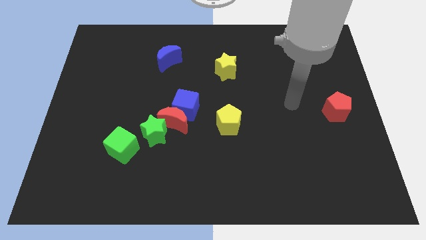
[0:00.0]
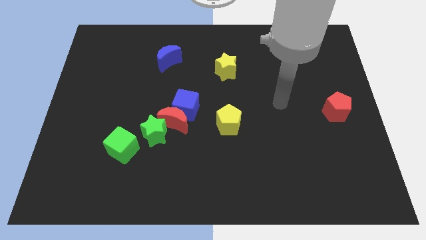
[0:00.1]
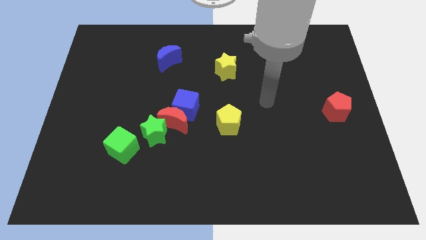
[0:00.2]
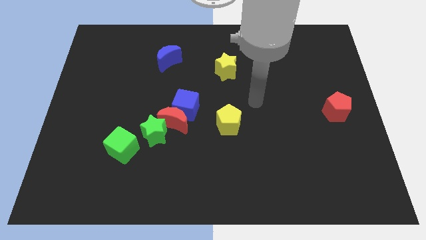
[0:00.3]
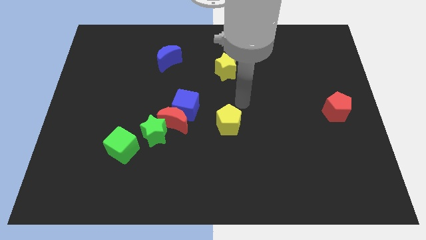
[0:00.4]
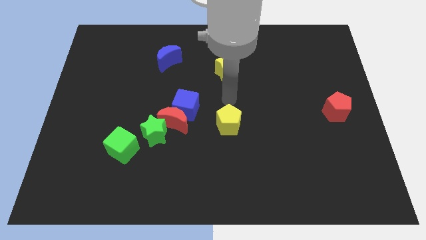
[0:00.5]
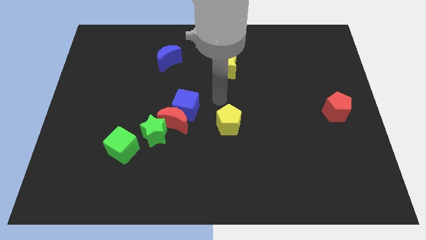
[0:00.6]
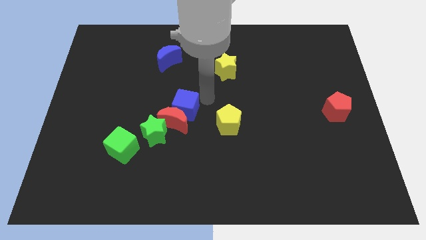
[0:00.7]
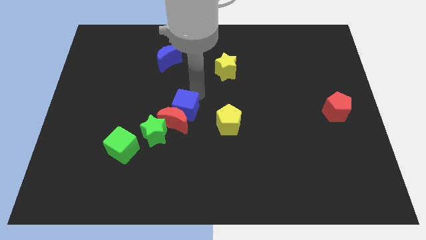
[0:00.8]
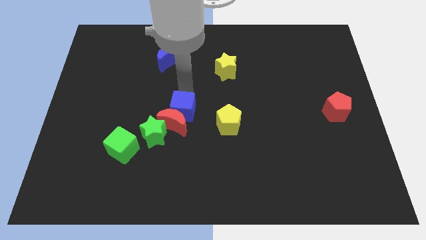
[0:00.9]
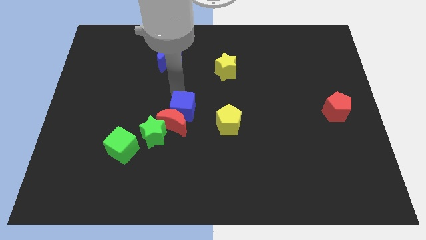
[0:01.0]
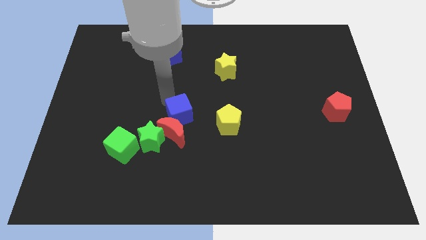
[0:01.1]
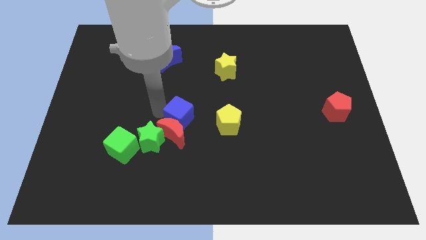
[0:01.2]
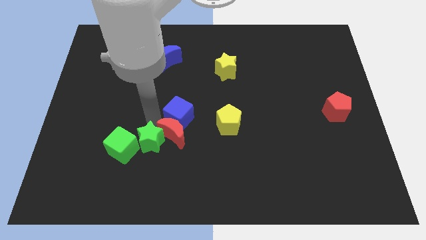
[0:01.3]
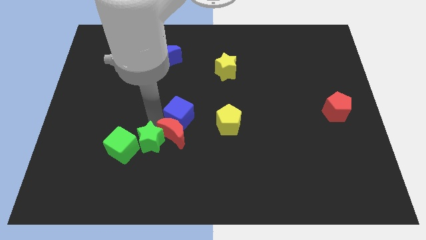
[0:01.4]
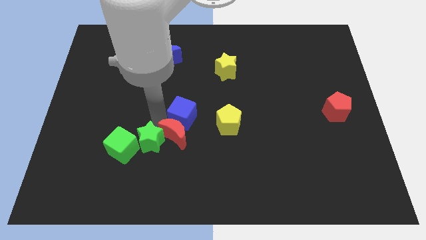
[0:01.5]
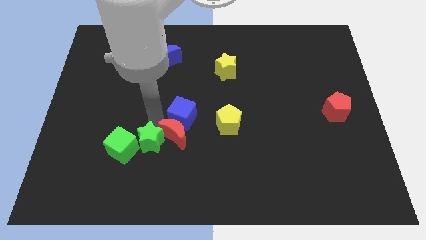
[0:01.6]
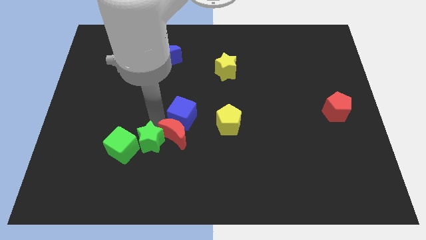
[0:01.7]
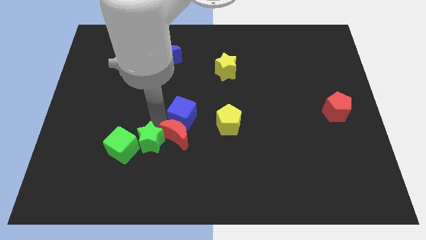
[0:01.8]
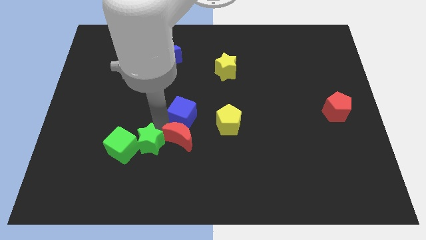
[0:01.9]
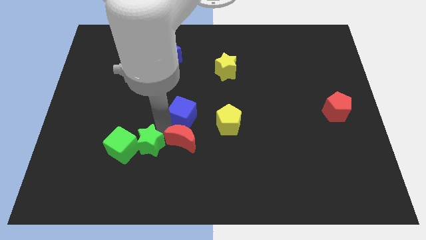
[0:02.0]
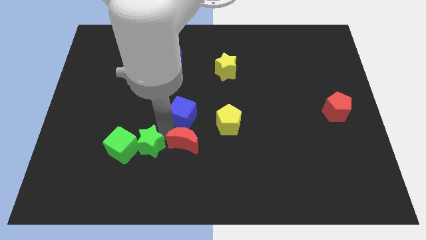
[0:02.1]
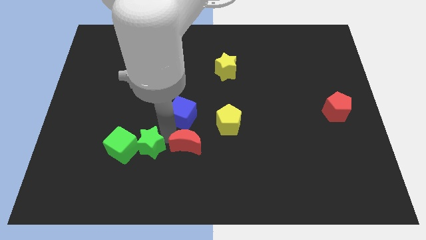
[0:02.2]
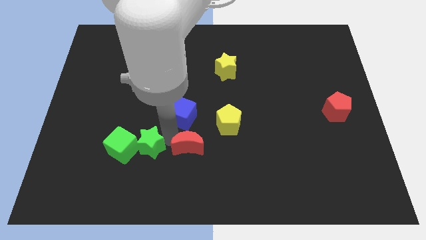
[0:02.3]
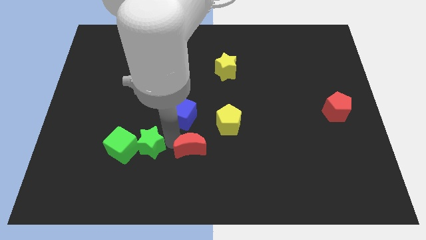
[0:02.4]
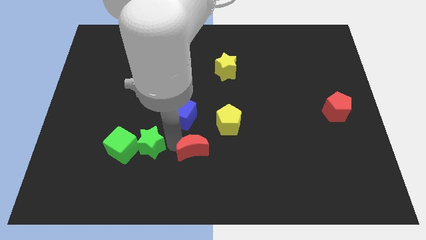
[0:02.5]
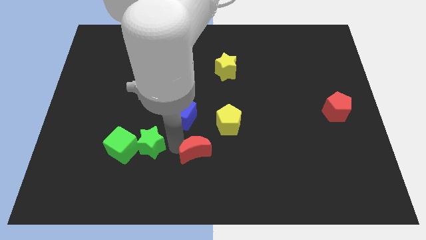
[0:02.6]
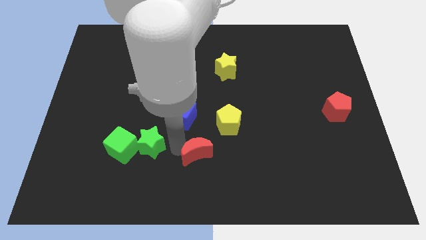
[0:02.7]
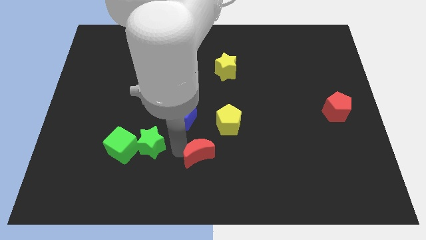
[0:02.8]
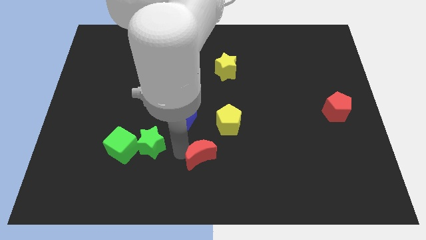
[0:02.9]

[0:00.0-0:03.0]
move the red moon away from the blue cube and green star

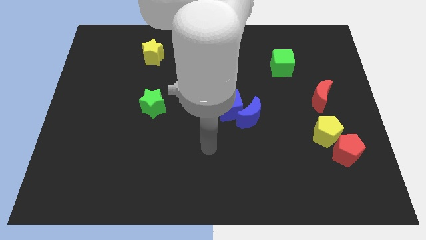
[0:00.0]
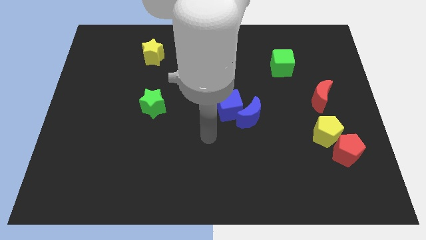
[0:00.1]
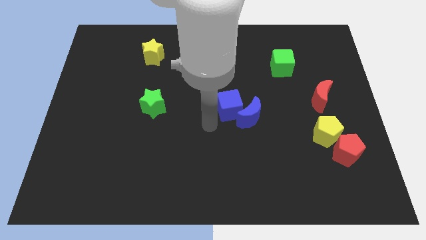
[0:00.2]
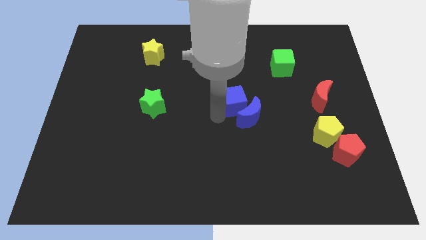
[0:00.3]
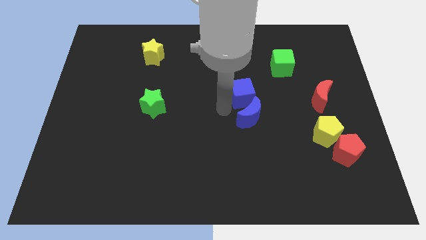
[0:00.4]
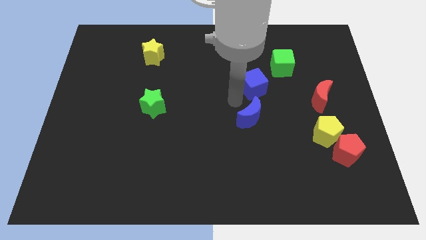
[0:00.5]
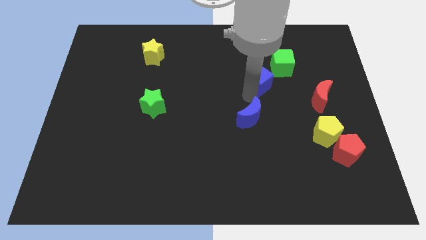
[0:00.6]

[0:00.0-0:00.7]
pull the blue moon apart from the blue cube

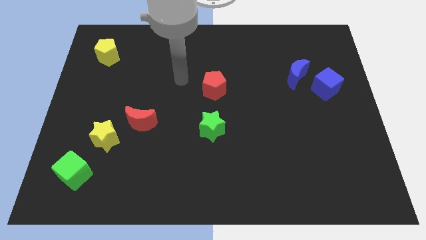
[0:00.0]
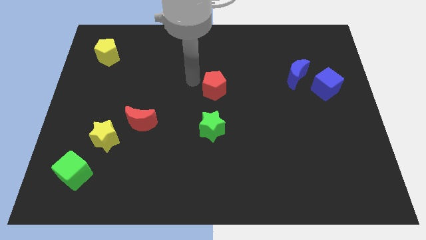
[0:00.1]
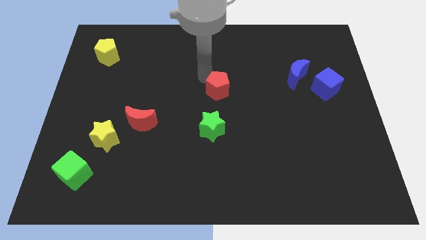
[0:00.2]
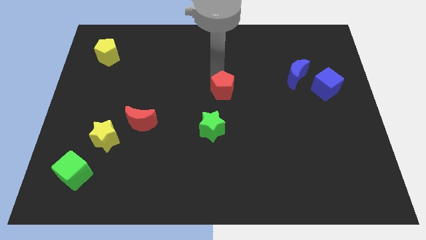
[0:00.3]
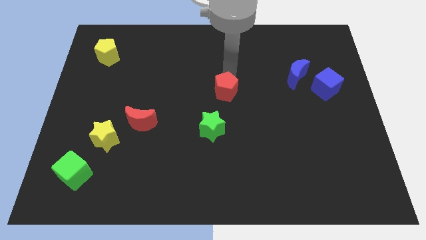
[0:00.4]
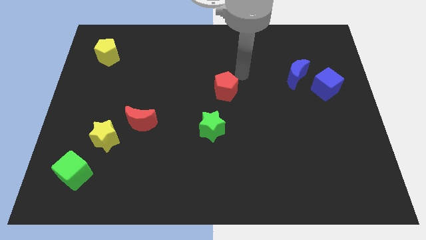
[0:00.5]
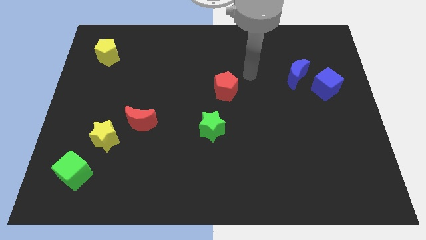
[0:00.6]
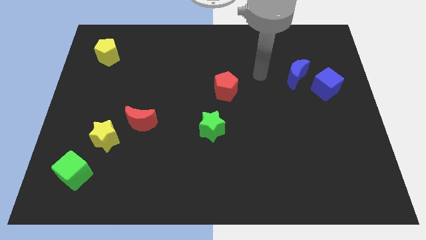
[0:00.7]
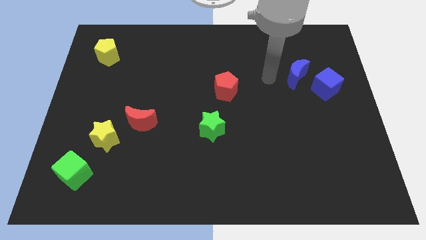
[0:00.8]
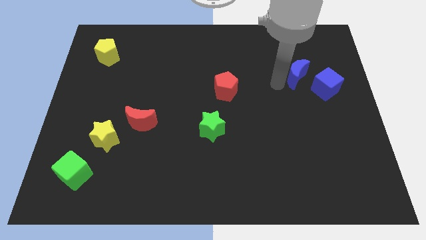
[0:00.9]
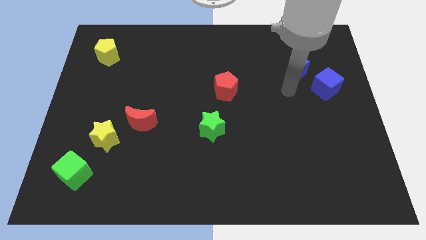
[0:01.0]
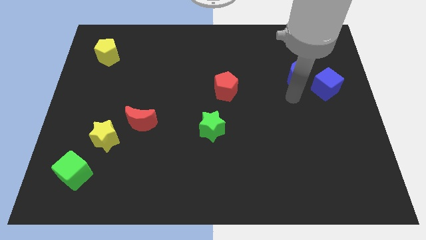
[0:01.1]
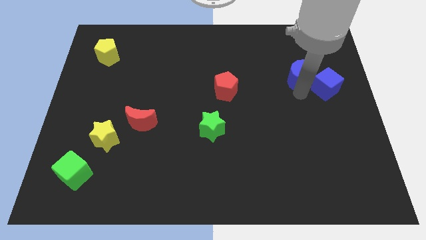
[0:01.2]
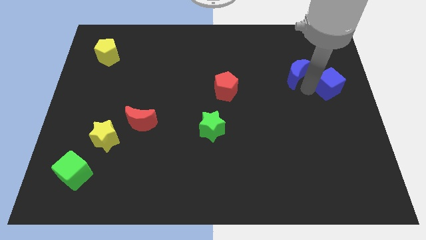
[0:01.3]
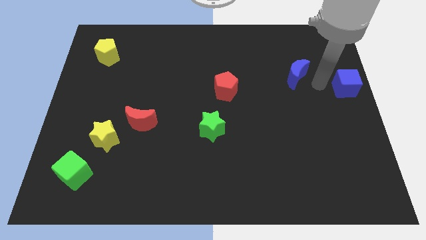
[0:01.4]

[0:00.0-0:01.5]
move the blue moon away from the blue cube

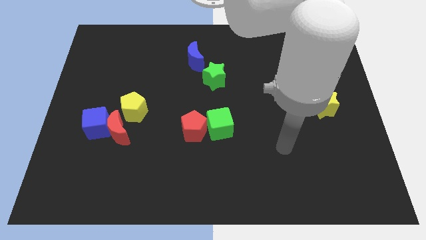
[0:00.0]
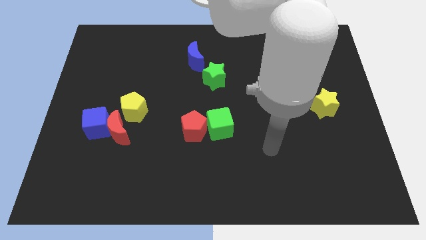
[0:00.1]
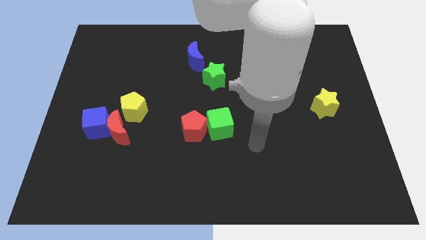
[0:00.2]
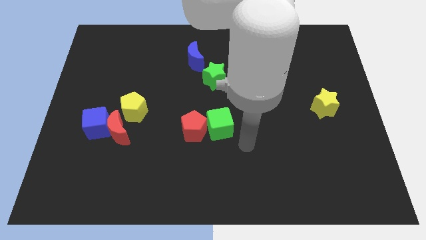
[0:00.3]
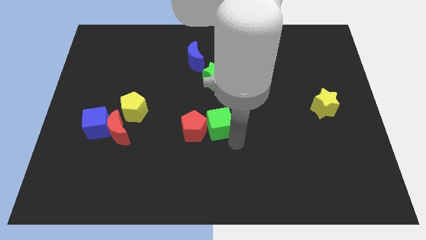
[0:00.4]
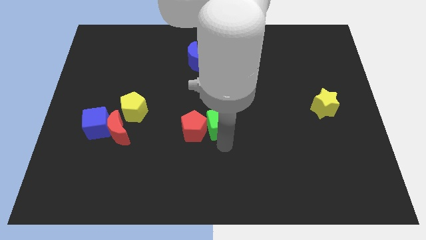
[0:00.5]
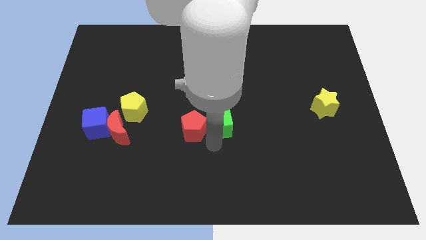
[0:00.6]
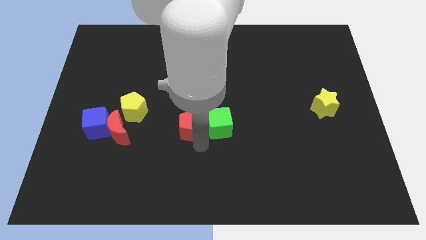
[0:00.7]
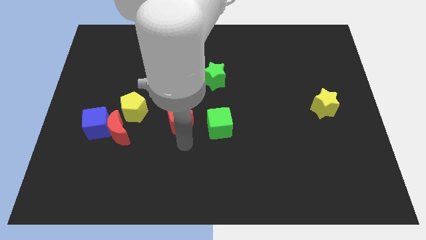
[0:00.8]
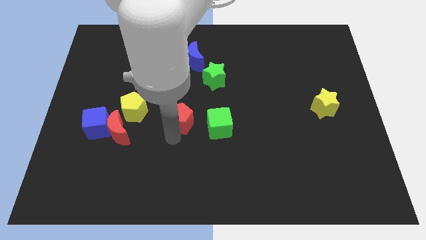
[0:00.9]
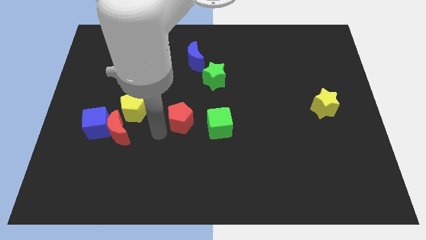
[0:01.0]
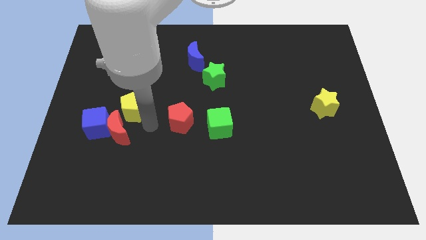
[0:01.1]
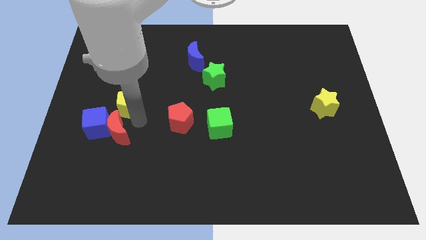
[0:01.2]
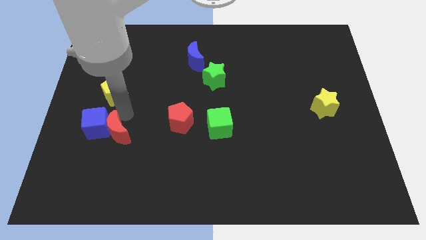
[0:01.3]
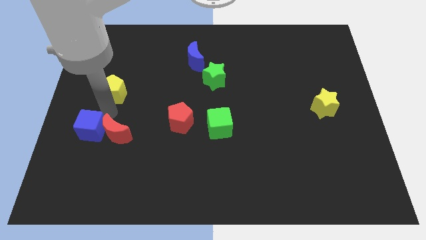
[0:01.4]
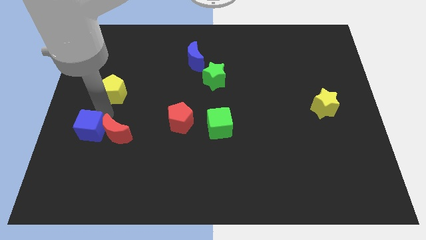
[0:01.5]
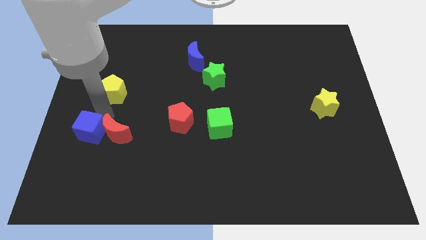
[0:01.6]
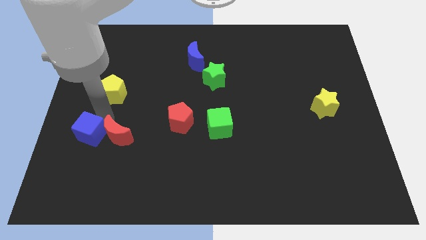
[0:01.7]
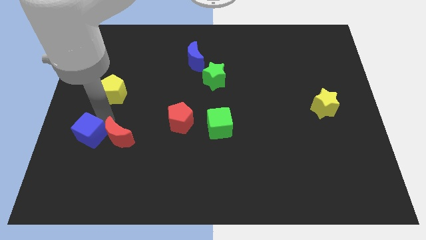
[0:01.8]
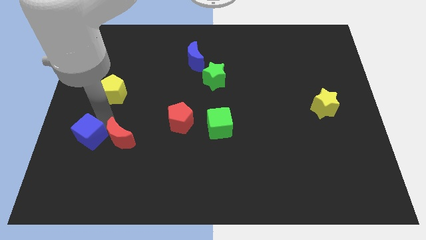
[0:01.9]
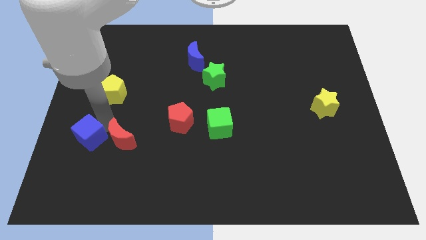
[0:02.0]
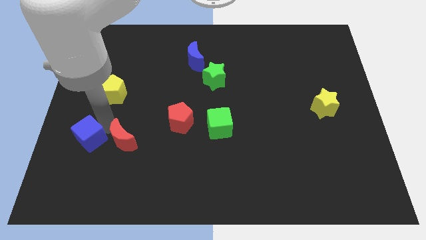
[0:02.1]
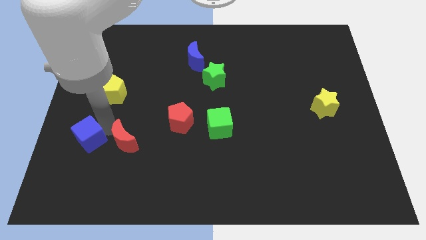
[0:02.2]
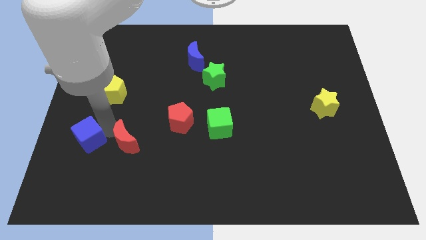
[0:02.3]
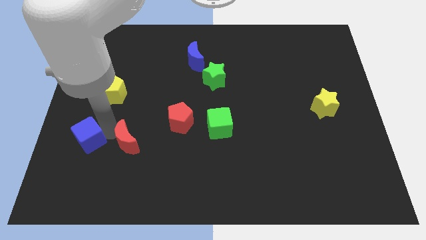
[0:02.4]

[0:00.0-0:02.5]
separate the red moon from the blue cube and yellow pentagon

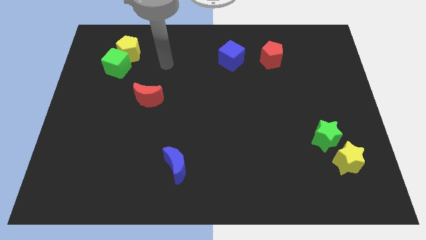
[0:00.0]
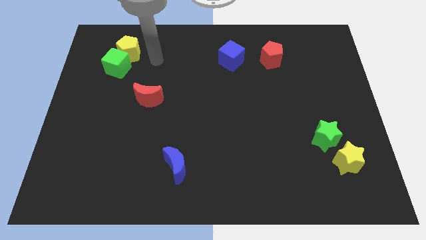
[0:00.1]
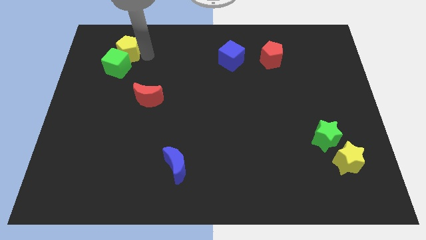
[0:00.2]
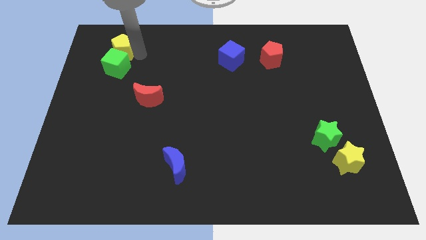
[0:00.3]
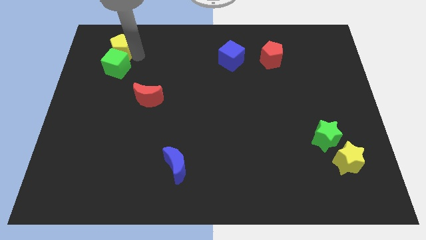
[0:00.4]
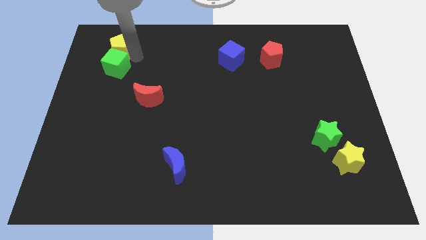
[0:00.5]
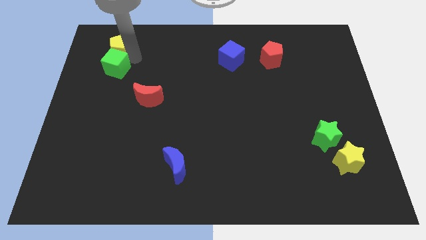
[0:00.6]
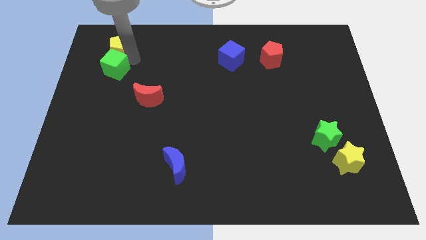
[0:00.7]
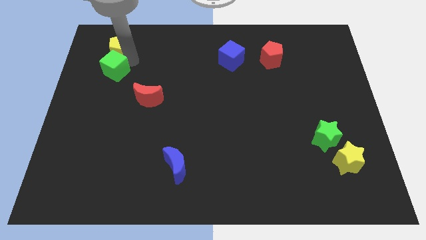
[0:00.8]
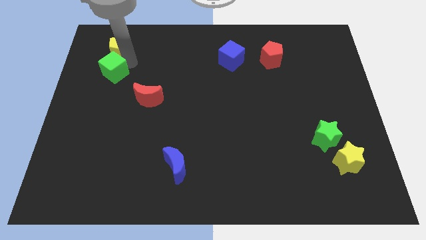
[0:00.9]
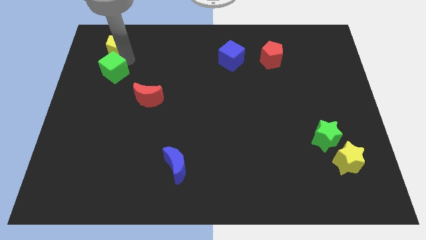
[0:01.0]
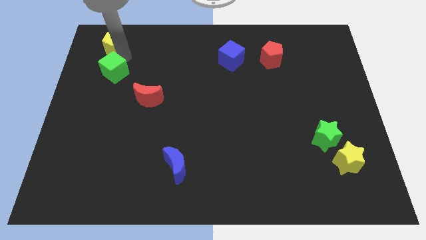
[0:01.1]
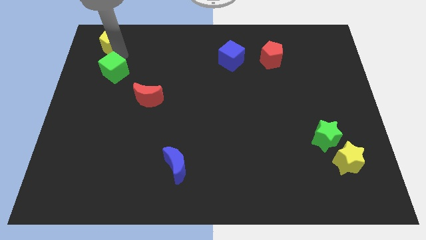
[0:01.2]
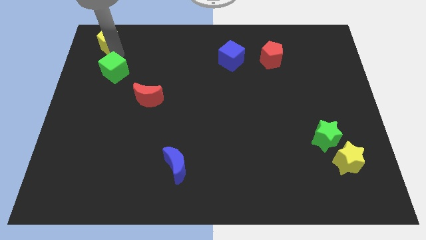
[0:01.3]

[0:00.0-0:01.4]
separate the green cube from the yellow pentagon

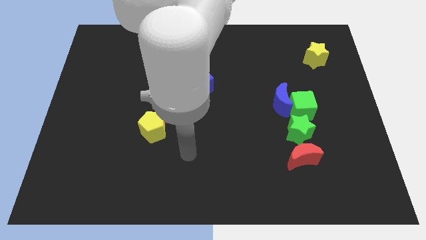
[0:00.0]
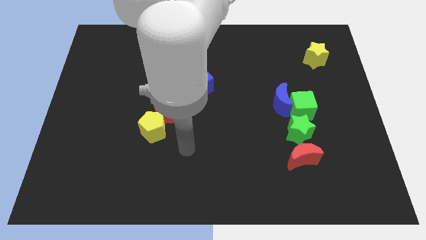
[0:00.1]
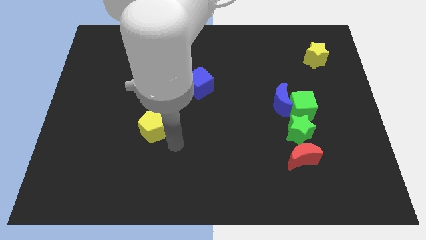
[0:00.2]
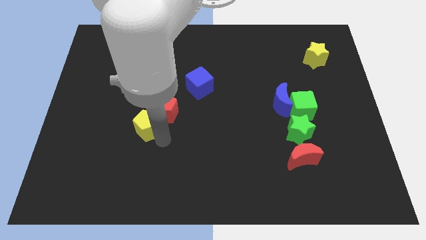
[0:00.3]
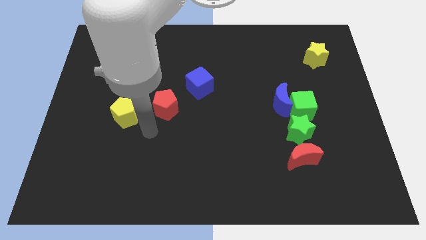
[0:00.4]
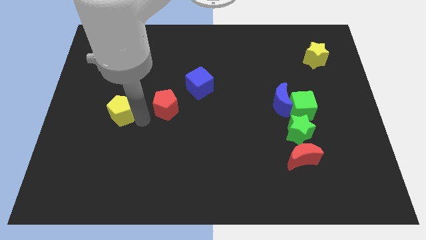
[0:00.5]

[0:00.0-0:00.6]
separate the red pentagon from the yellow pentagon
